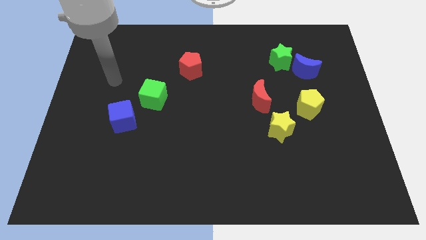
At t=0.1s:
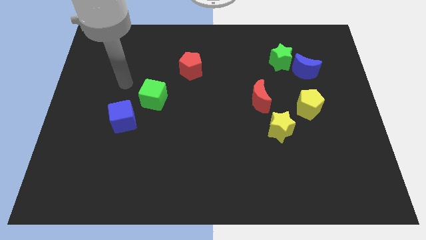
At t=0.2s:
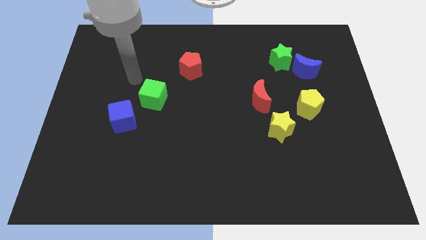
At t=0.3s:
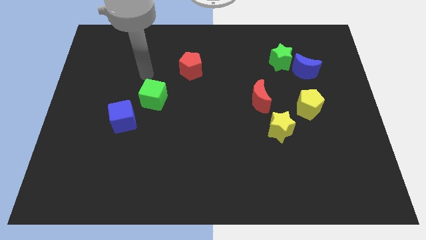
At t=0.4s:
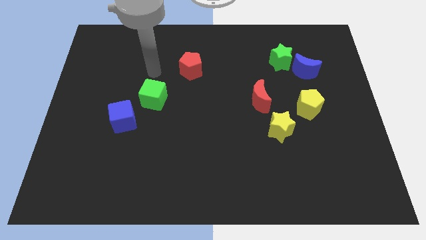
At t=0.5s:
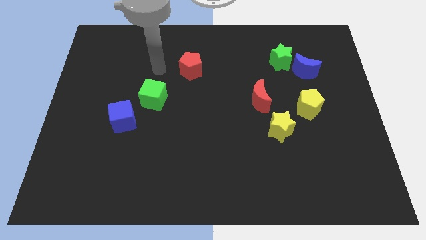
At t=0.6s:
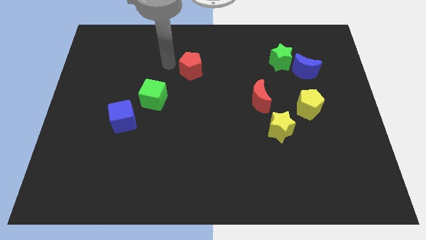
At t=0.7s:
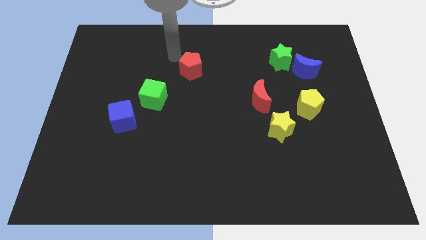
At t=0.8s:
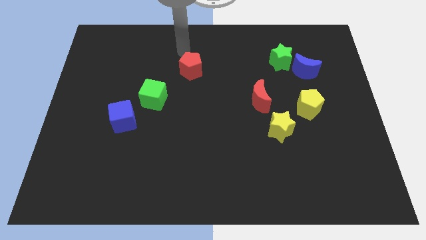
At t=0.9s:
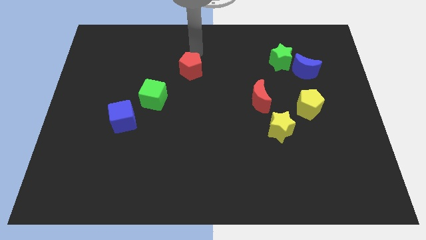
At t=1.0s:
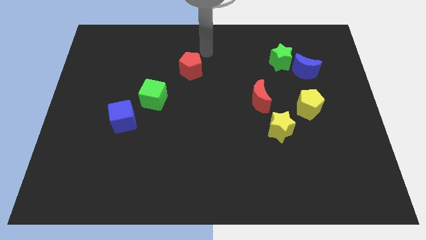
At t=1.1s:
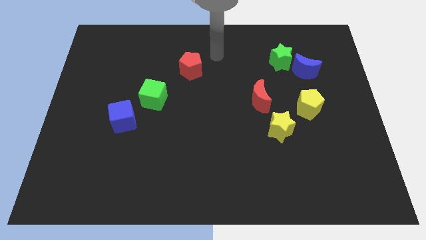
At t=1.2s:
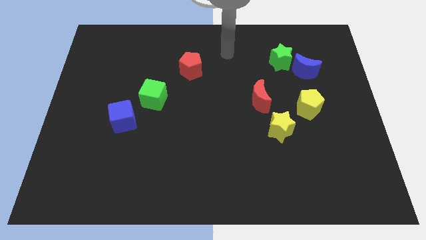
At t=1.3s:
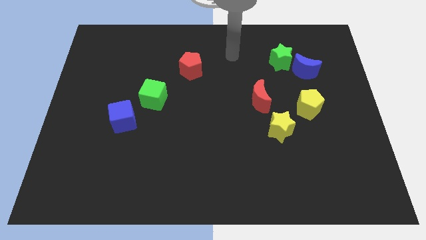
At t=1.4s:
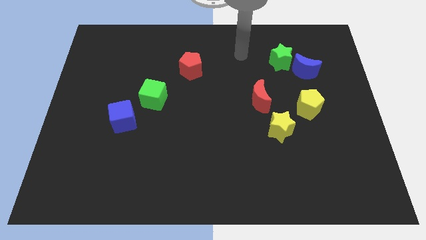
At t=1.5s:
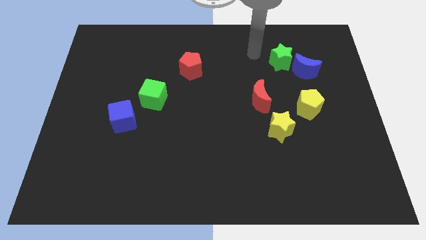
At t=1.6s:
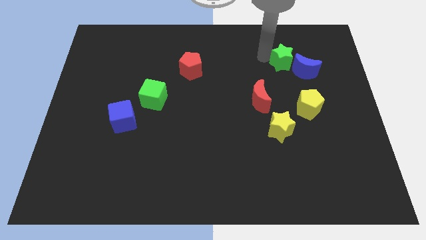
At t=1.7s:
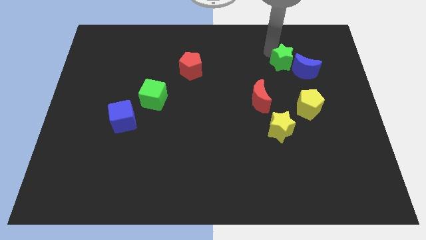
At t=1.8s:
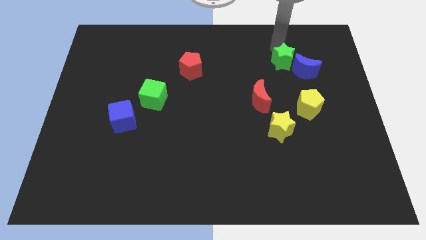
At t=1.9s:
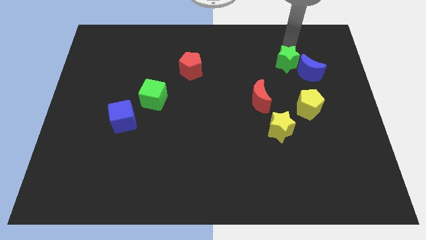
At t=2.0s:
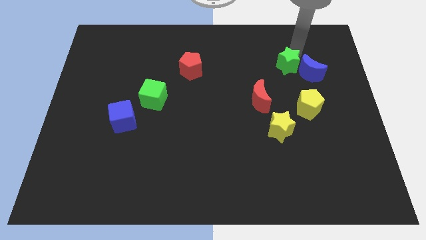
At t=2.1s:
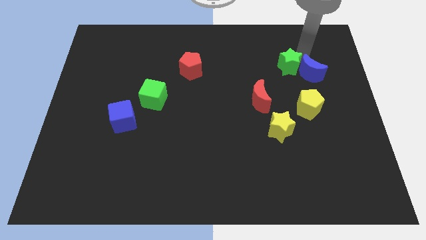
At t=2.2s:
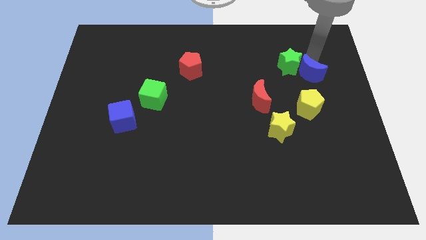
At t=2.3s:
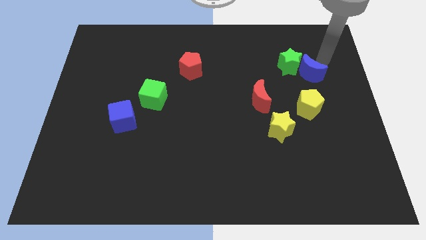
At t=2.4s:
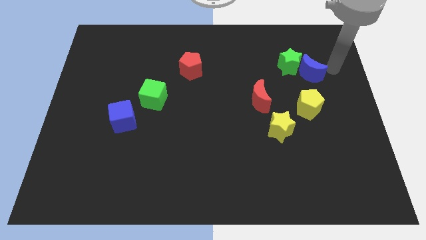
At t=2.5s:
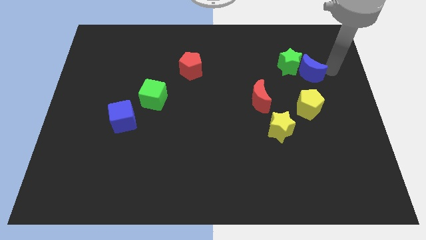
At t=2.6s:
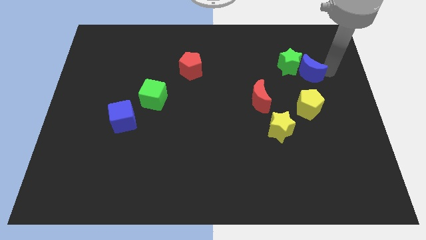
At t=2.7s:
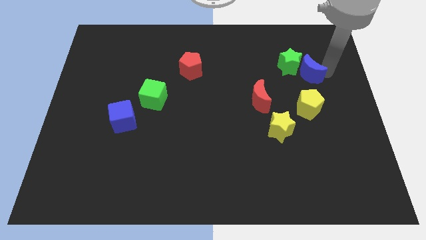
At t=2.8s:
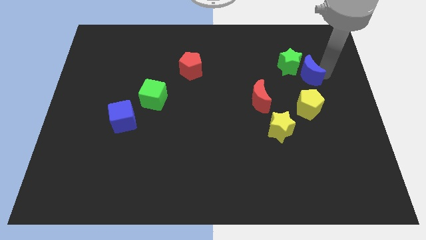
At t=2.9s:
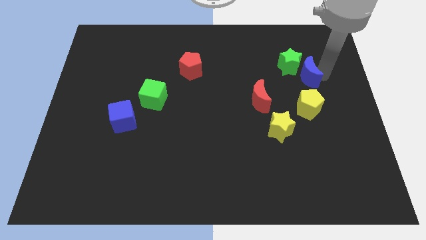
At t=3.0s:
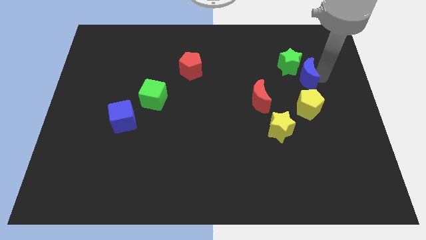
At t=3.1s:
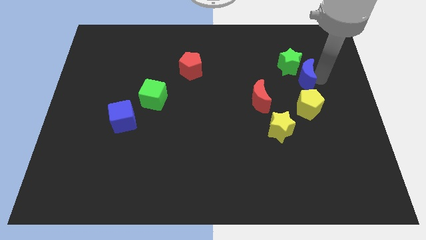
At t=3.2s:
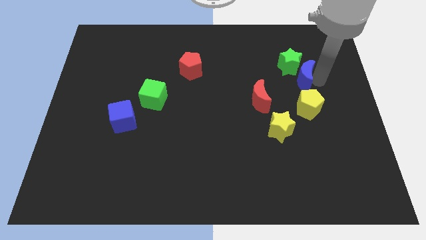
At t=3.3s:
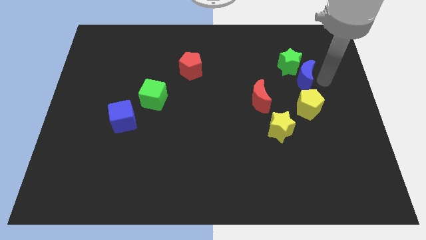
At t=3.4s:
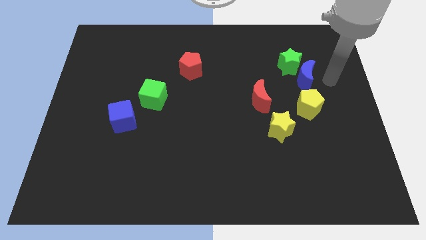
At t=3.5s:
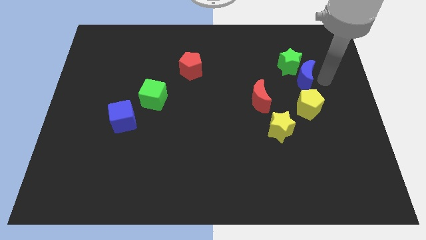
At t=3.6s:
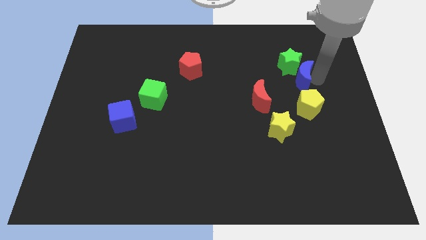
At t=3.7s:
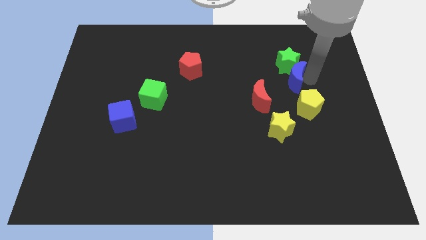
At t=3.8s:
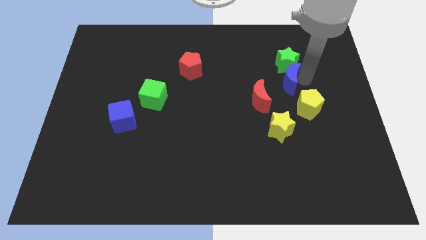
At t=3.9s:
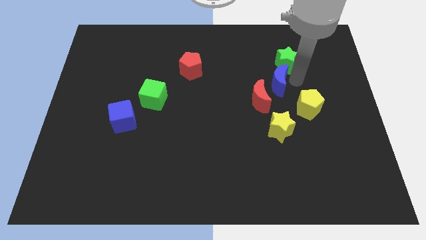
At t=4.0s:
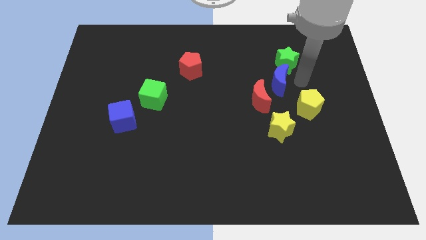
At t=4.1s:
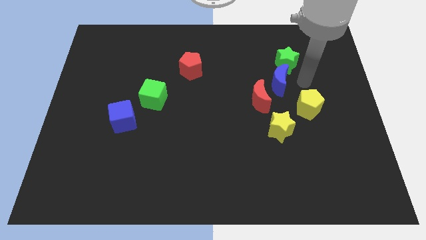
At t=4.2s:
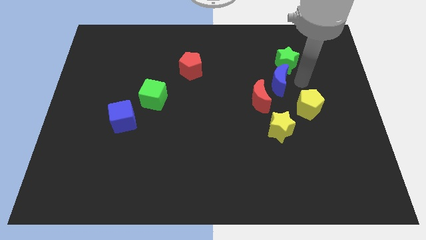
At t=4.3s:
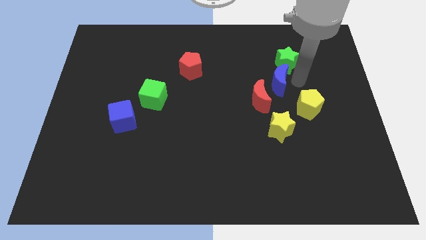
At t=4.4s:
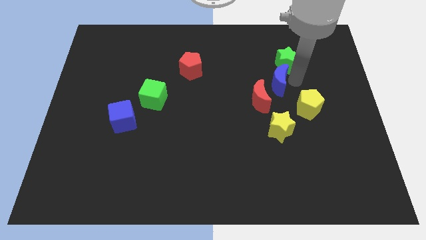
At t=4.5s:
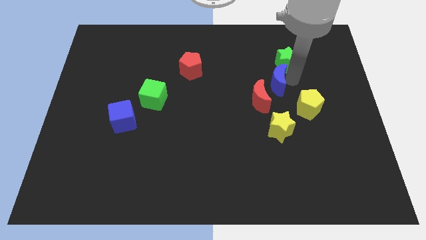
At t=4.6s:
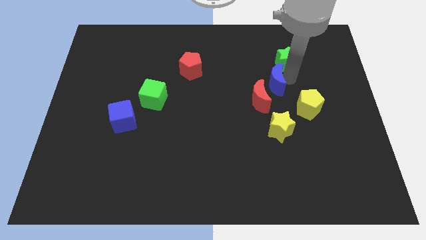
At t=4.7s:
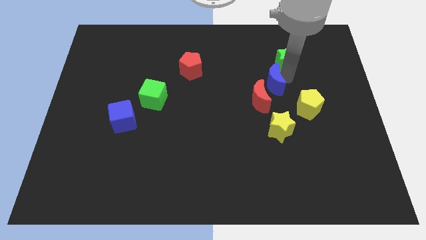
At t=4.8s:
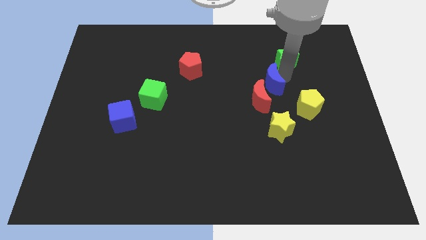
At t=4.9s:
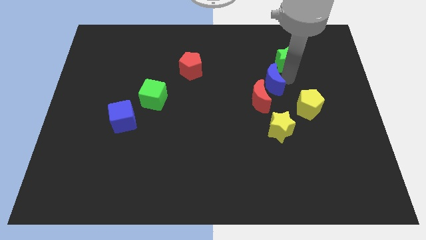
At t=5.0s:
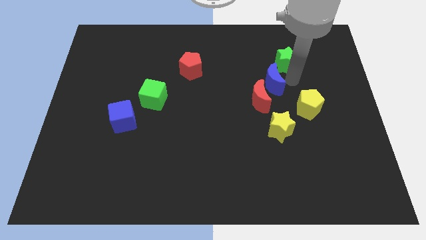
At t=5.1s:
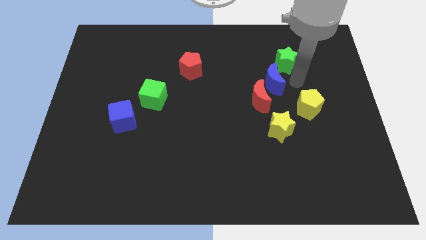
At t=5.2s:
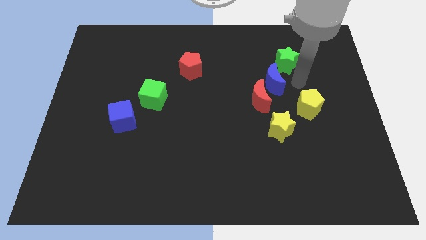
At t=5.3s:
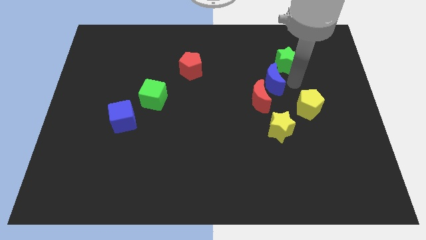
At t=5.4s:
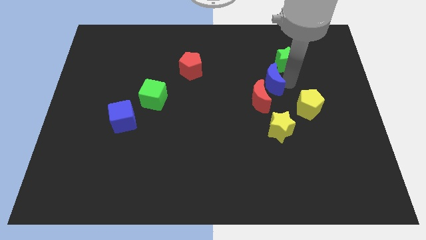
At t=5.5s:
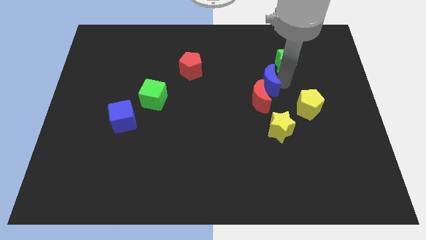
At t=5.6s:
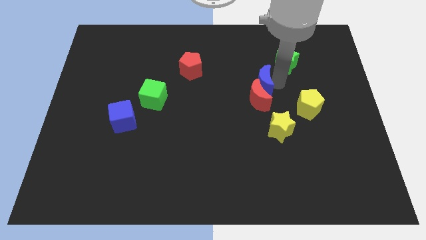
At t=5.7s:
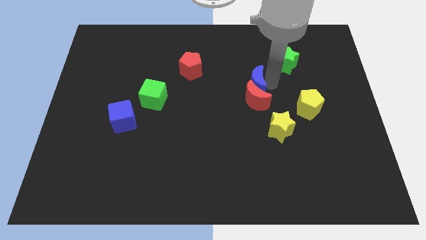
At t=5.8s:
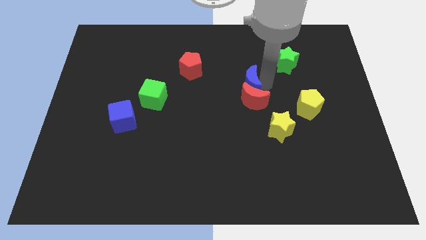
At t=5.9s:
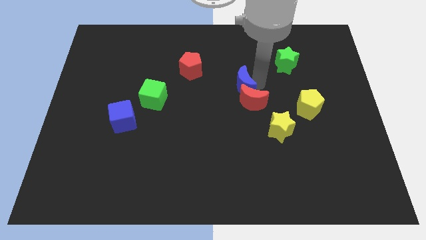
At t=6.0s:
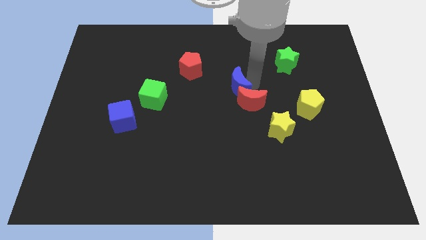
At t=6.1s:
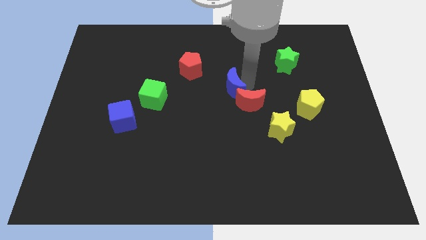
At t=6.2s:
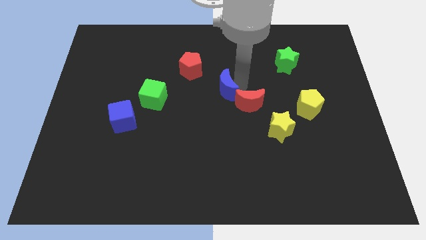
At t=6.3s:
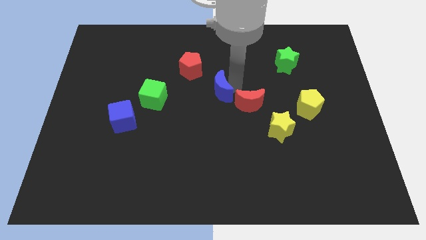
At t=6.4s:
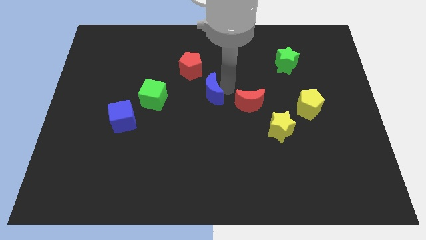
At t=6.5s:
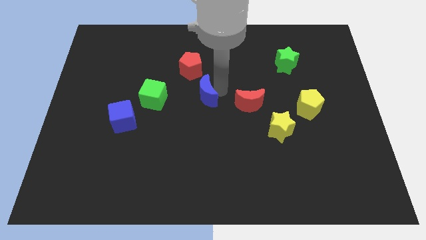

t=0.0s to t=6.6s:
slide the blue moon to the bottom of the red pentagon
